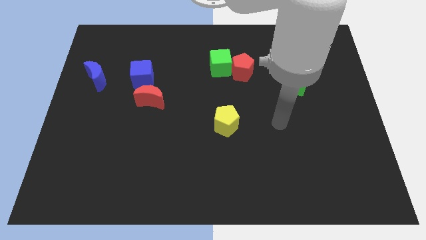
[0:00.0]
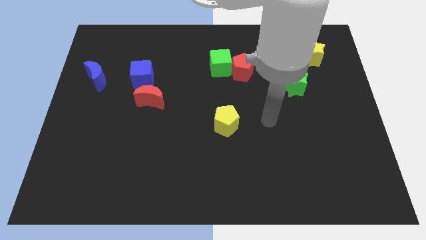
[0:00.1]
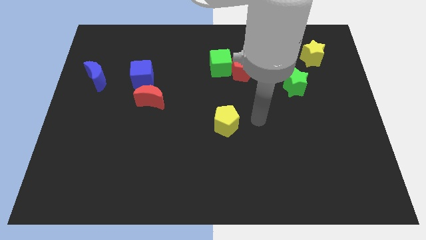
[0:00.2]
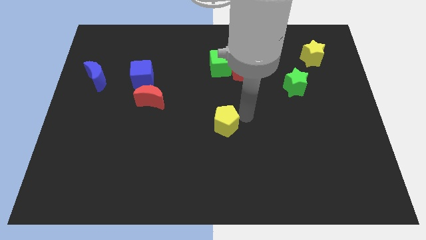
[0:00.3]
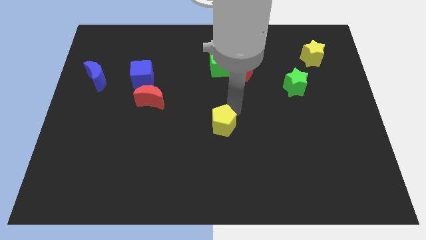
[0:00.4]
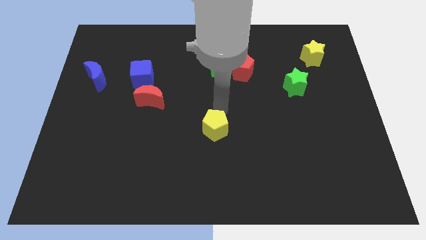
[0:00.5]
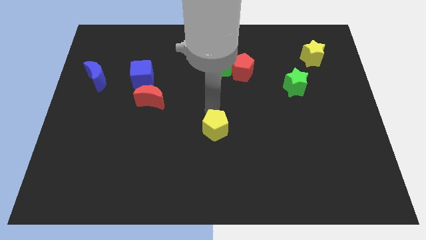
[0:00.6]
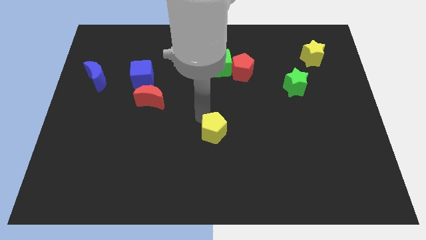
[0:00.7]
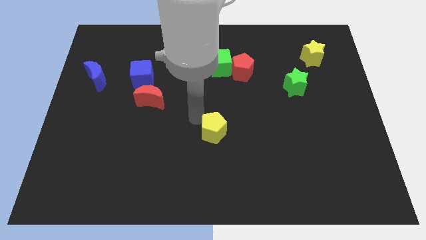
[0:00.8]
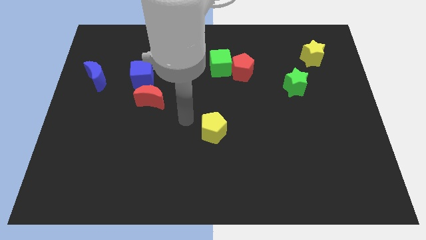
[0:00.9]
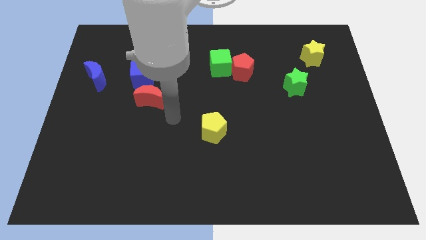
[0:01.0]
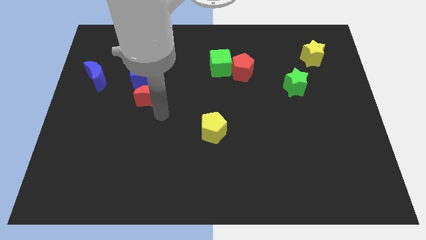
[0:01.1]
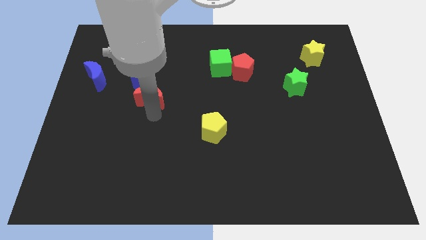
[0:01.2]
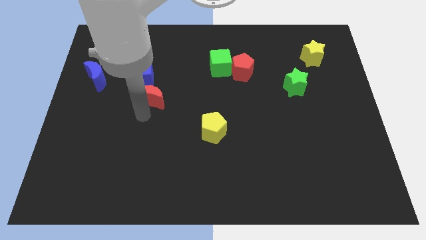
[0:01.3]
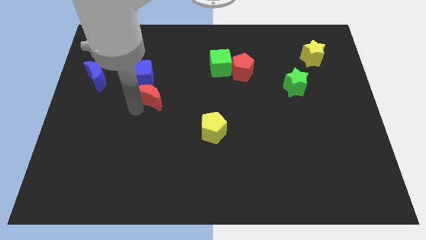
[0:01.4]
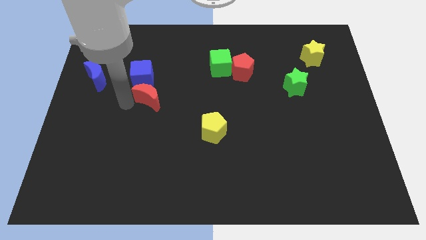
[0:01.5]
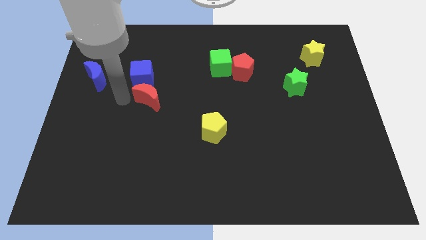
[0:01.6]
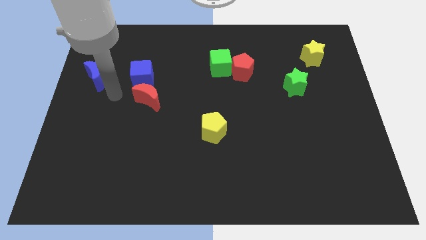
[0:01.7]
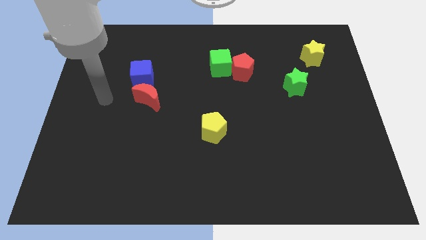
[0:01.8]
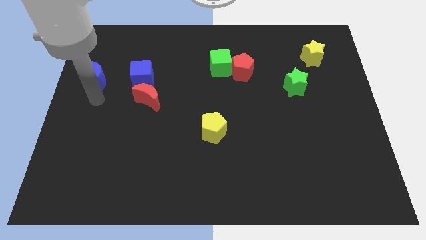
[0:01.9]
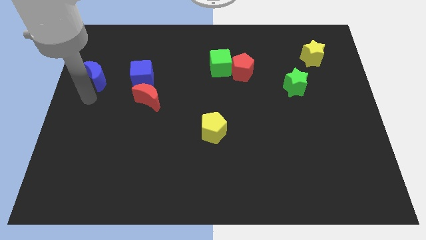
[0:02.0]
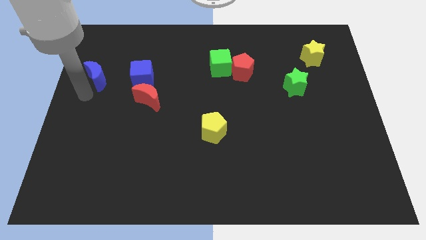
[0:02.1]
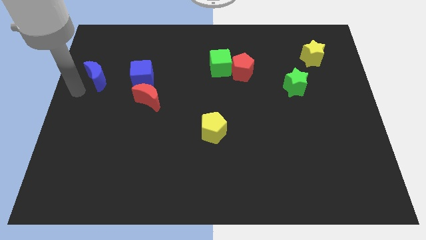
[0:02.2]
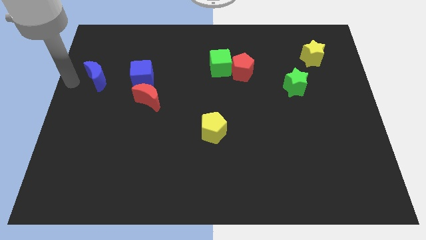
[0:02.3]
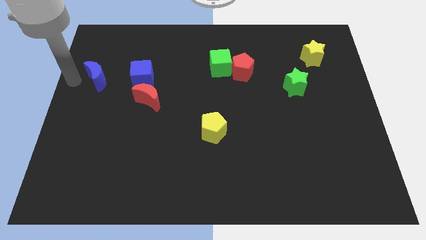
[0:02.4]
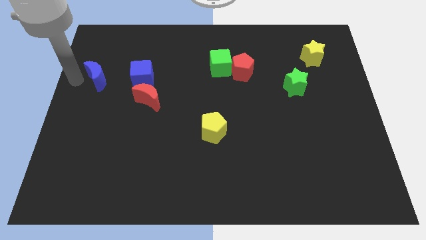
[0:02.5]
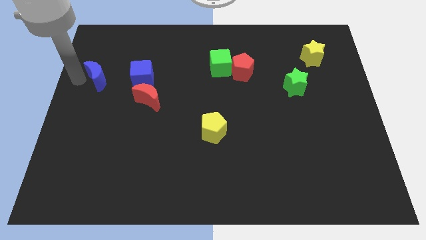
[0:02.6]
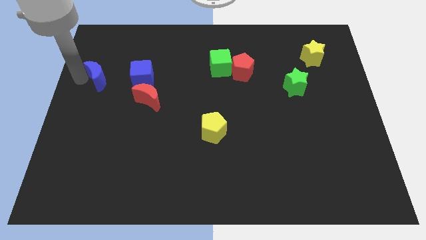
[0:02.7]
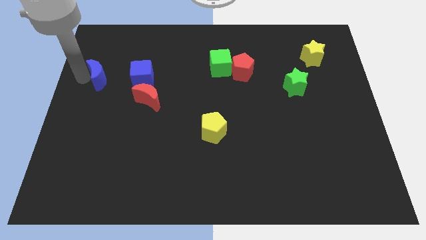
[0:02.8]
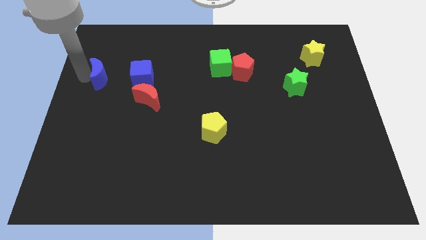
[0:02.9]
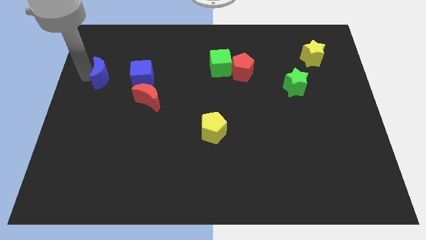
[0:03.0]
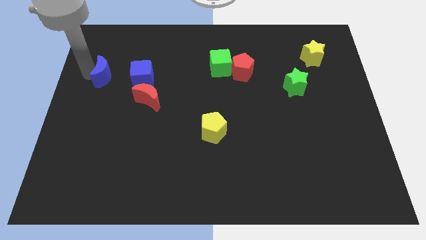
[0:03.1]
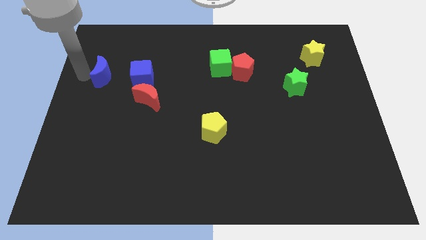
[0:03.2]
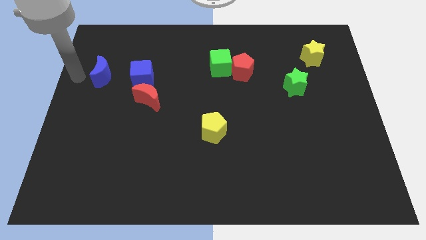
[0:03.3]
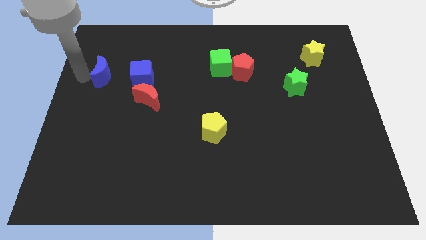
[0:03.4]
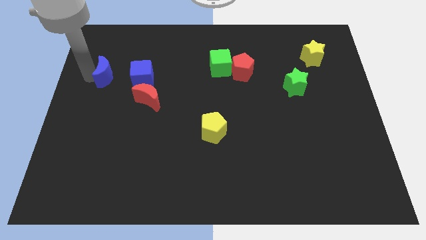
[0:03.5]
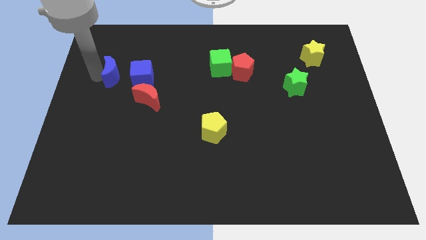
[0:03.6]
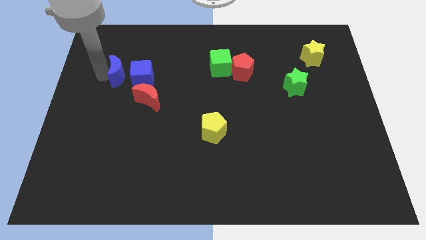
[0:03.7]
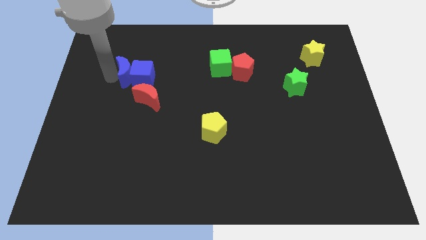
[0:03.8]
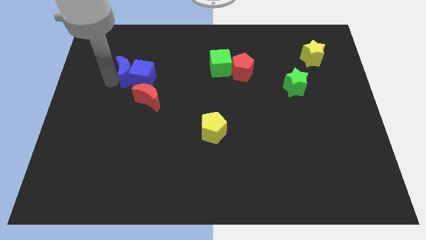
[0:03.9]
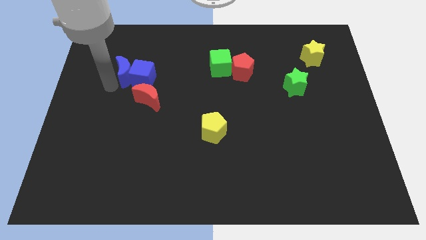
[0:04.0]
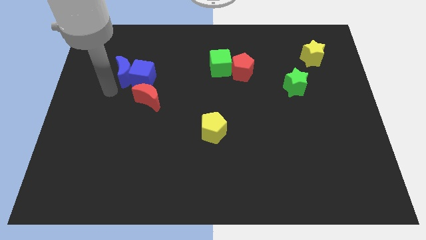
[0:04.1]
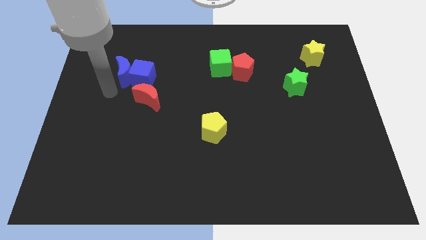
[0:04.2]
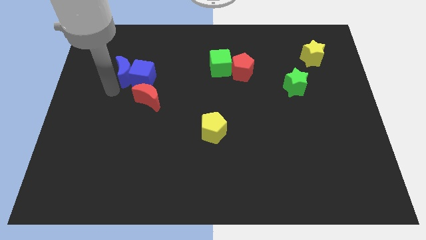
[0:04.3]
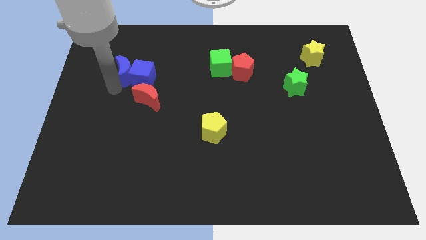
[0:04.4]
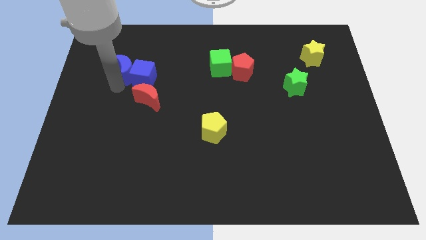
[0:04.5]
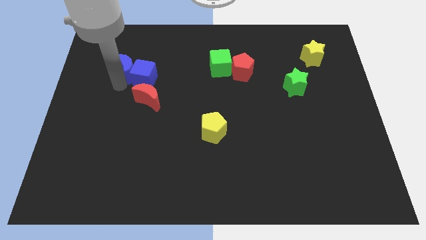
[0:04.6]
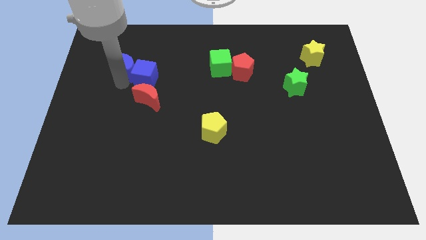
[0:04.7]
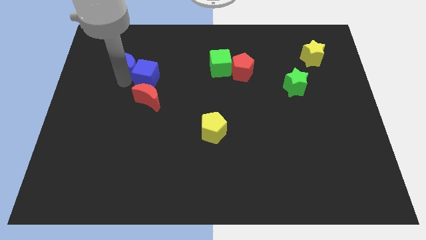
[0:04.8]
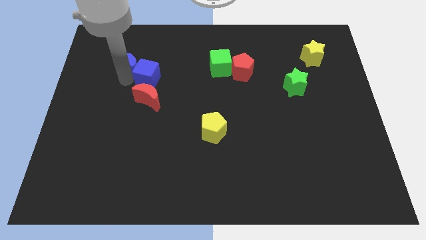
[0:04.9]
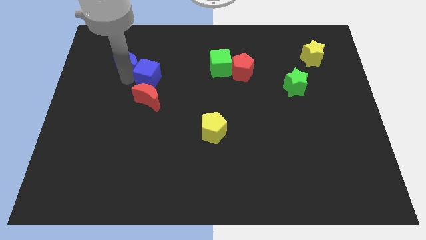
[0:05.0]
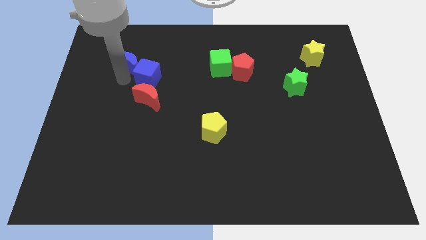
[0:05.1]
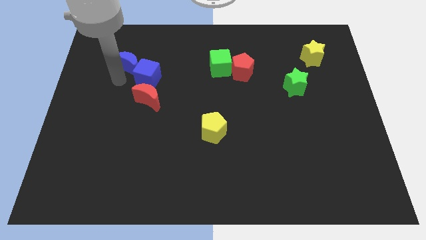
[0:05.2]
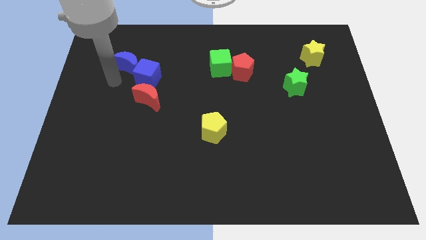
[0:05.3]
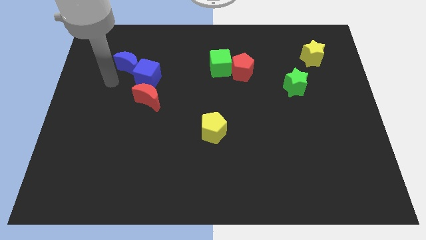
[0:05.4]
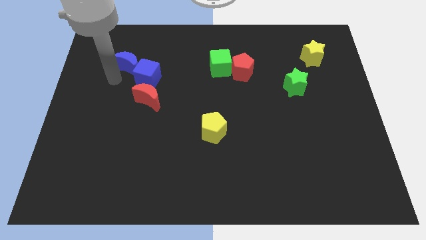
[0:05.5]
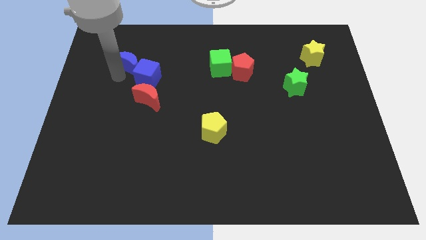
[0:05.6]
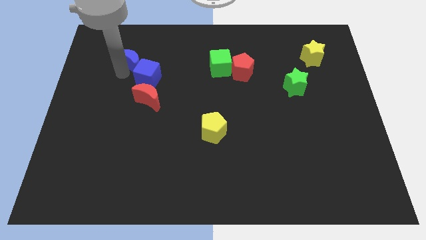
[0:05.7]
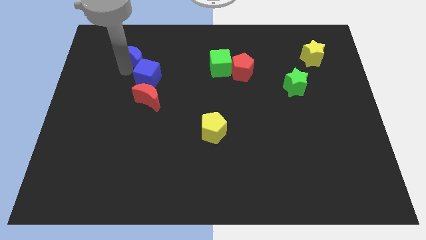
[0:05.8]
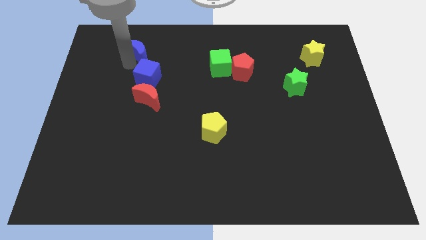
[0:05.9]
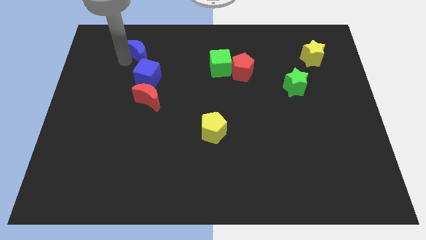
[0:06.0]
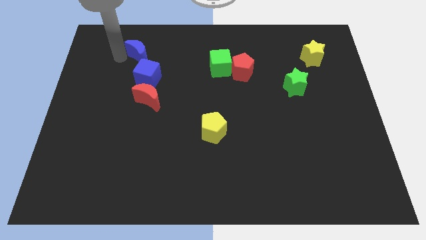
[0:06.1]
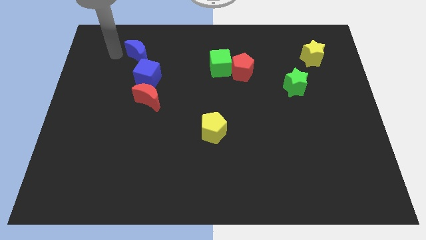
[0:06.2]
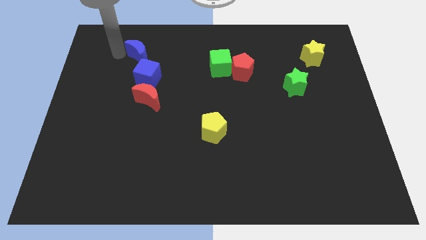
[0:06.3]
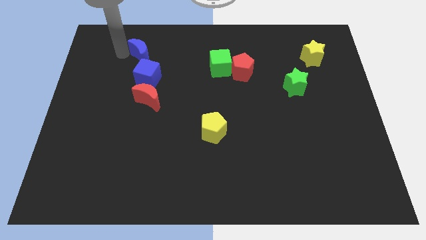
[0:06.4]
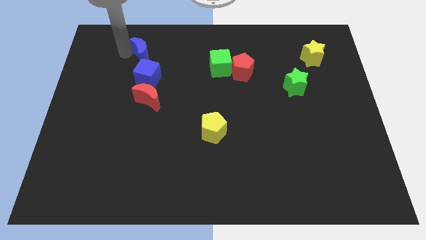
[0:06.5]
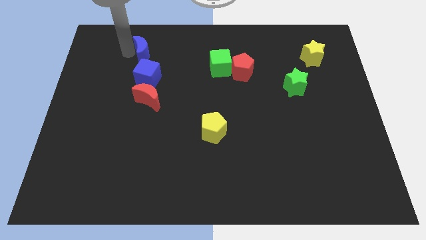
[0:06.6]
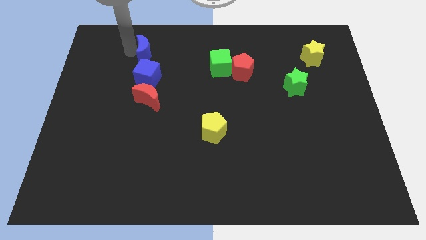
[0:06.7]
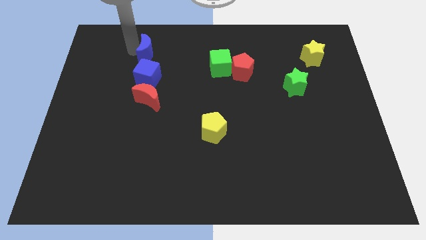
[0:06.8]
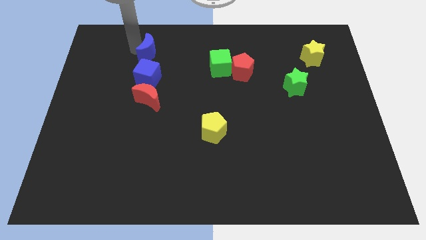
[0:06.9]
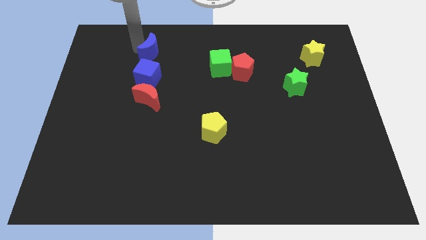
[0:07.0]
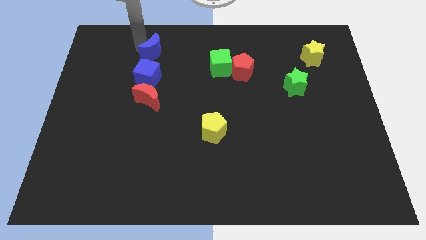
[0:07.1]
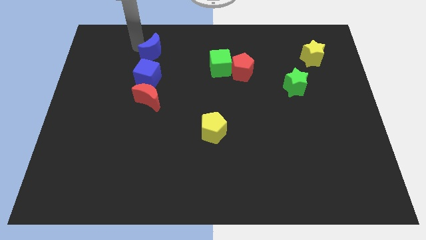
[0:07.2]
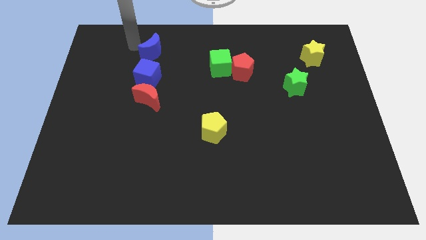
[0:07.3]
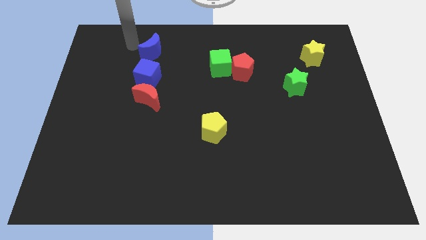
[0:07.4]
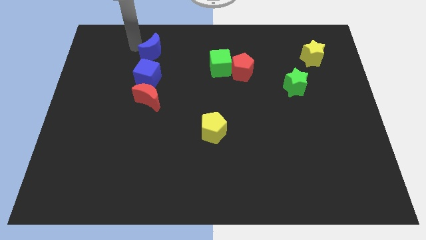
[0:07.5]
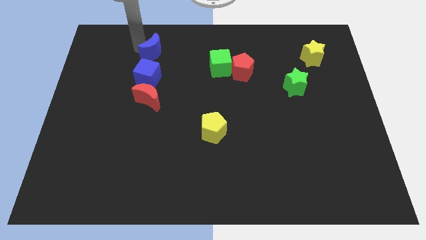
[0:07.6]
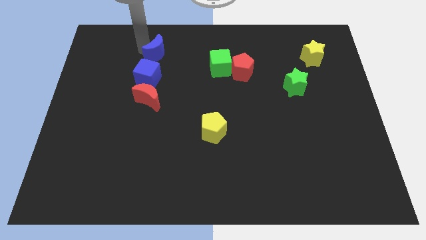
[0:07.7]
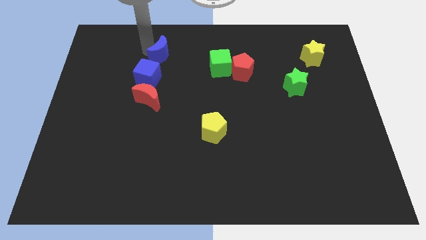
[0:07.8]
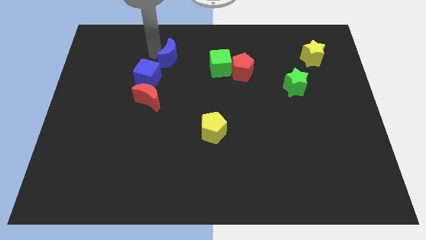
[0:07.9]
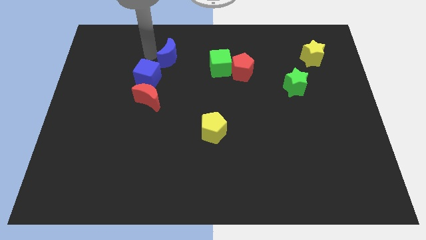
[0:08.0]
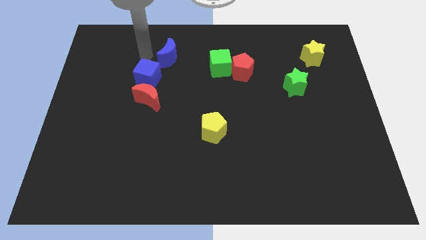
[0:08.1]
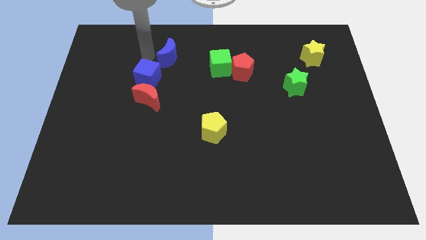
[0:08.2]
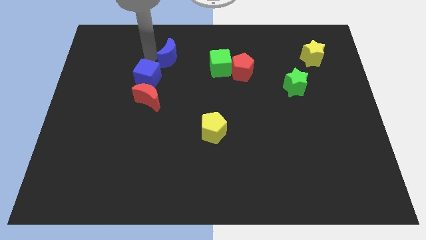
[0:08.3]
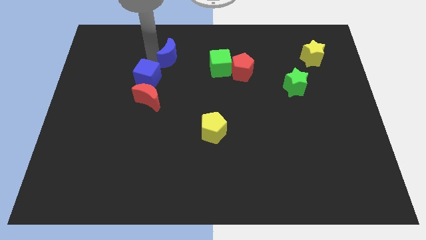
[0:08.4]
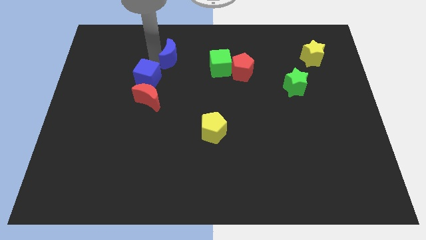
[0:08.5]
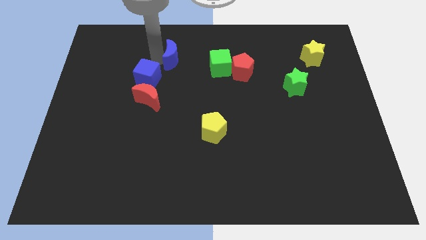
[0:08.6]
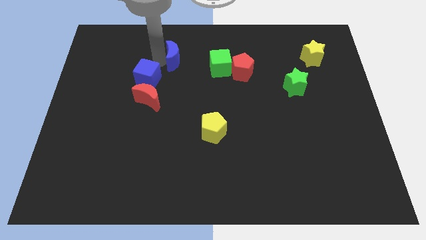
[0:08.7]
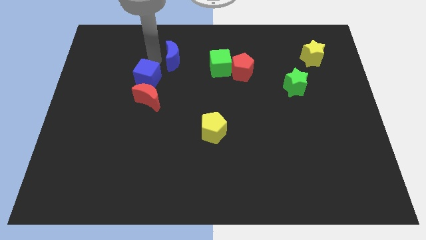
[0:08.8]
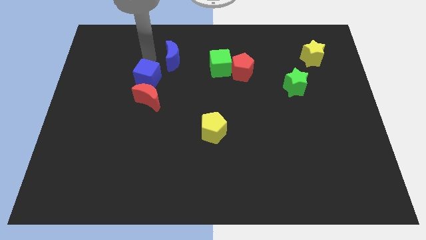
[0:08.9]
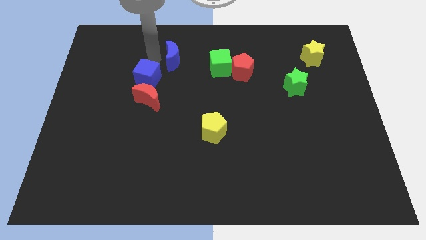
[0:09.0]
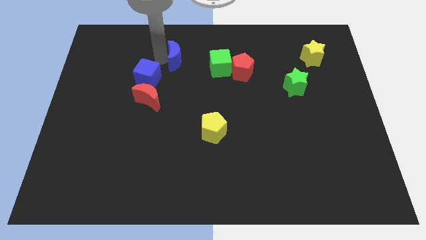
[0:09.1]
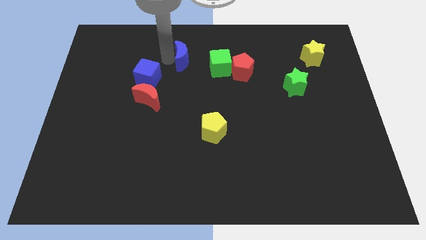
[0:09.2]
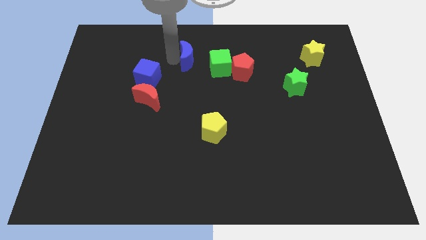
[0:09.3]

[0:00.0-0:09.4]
slide the blue moon right
